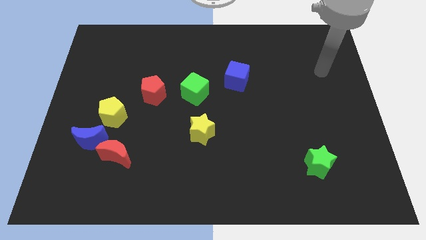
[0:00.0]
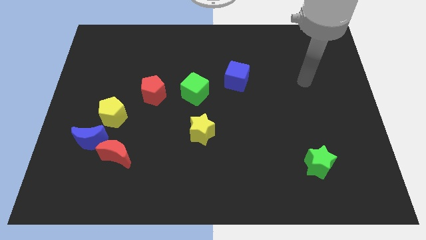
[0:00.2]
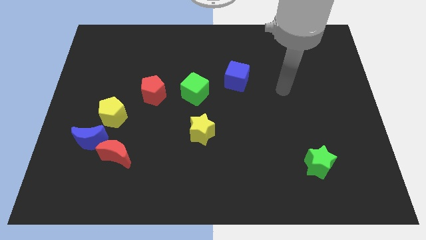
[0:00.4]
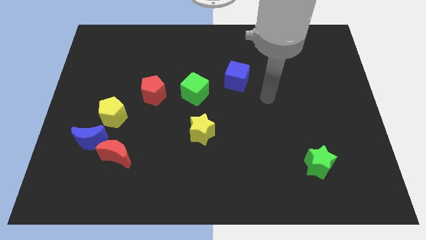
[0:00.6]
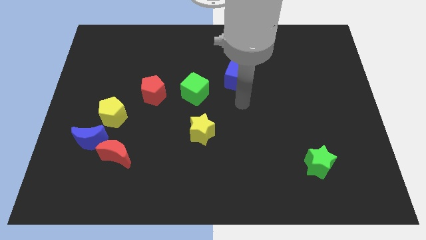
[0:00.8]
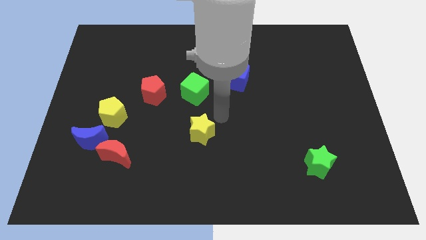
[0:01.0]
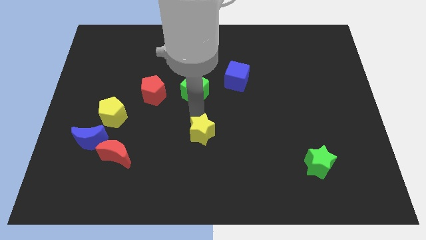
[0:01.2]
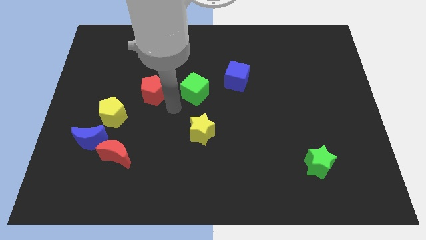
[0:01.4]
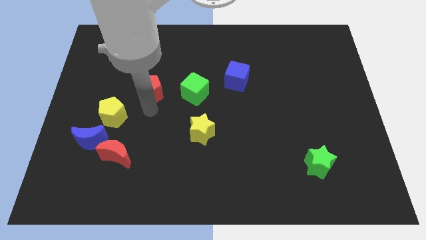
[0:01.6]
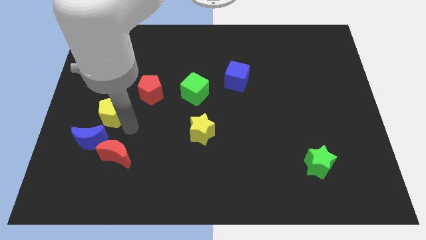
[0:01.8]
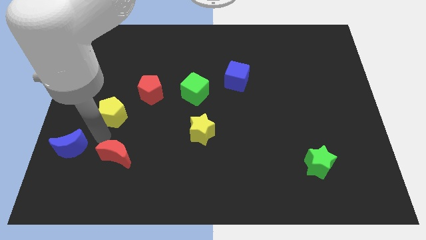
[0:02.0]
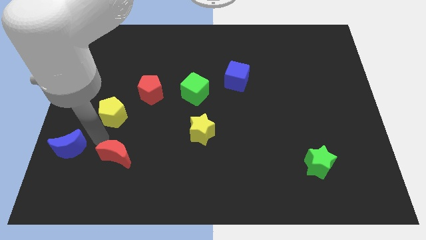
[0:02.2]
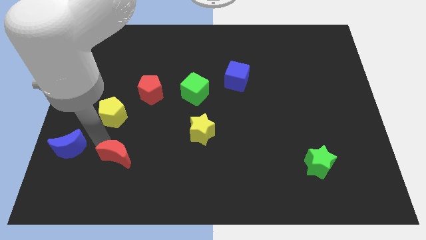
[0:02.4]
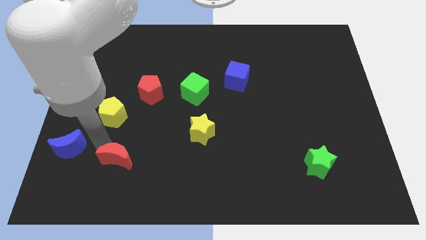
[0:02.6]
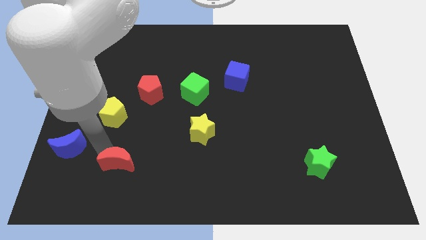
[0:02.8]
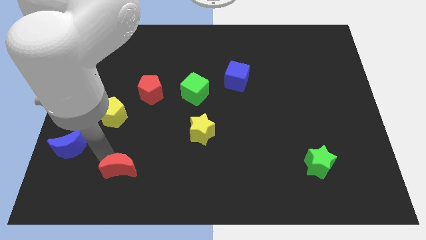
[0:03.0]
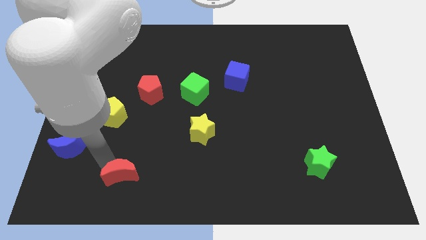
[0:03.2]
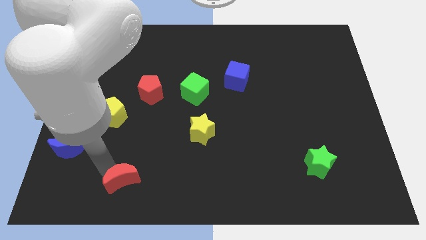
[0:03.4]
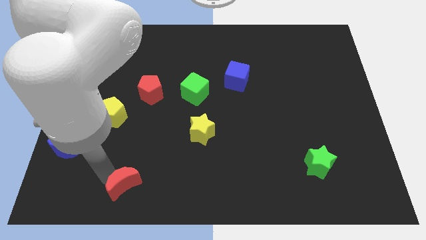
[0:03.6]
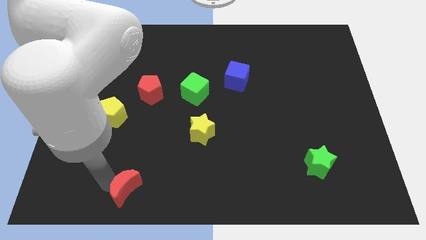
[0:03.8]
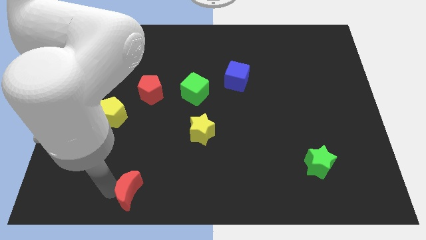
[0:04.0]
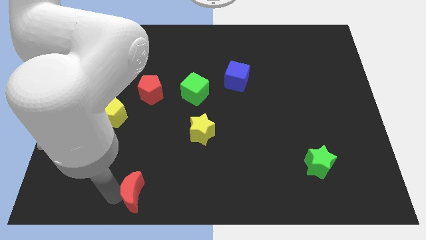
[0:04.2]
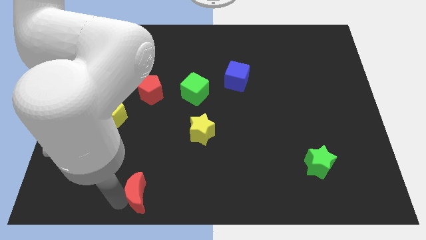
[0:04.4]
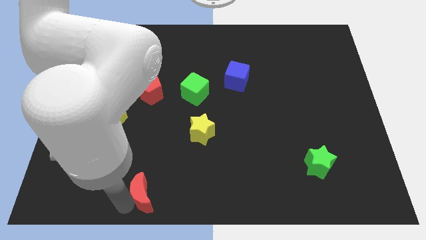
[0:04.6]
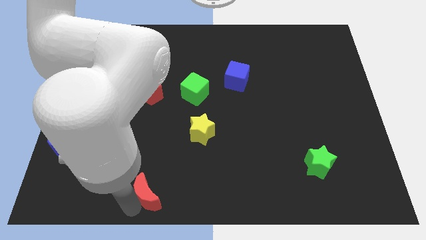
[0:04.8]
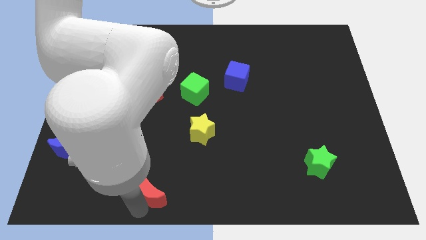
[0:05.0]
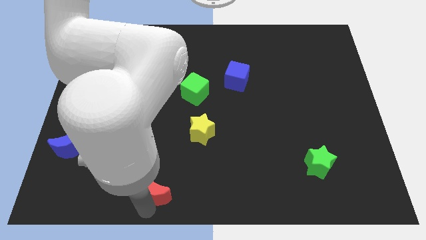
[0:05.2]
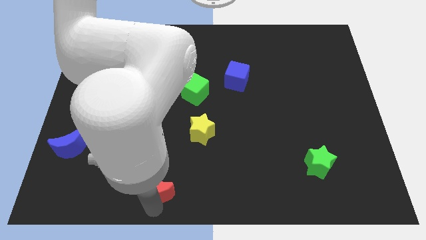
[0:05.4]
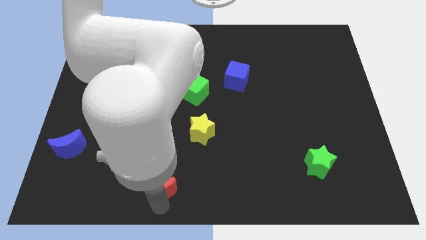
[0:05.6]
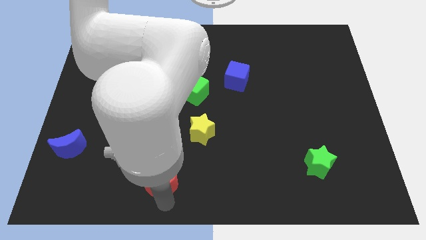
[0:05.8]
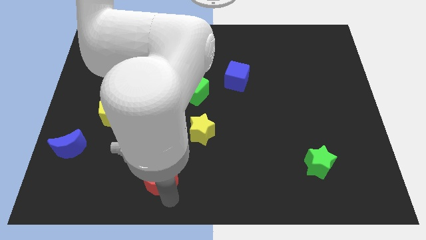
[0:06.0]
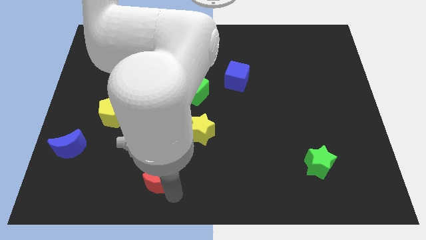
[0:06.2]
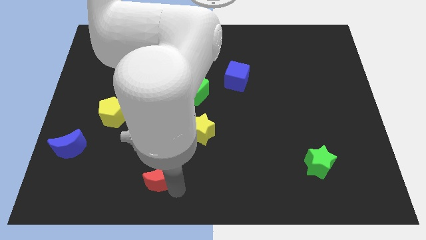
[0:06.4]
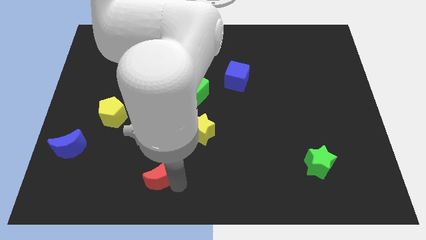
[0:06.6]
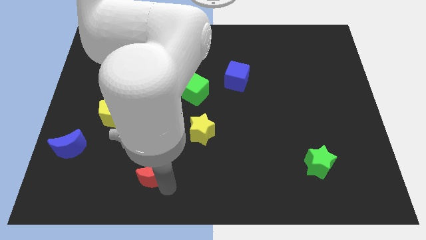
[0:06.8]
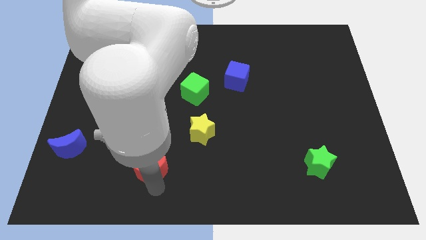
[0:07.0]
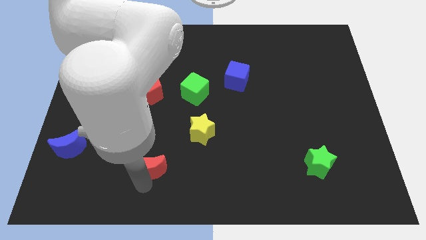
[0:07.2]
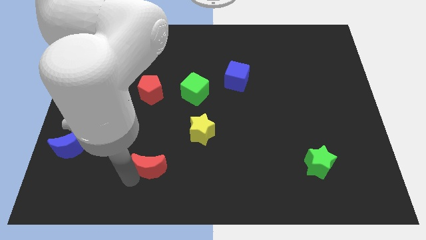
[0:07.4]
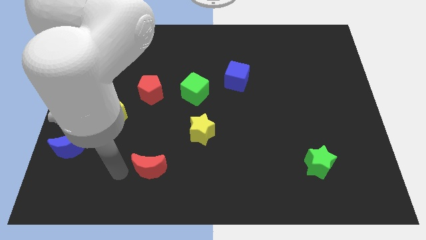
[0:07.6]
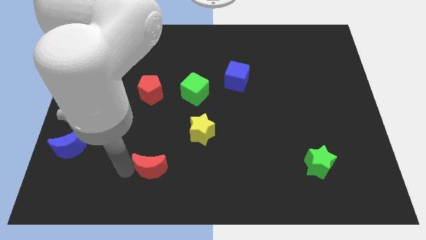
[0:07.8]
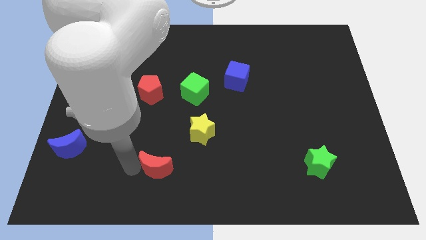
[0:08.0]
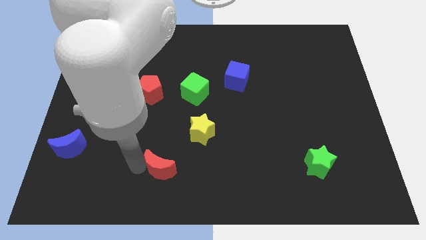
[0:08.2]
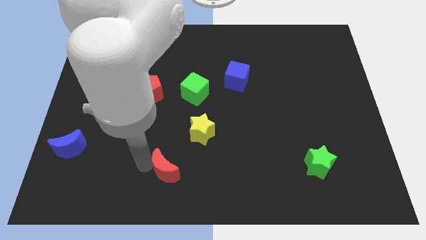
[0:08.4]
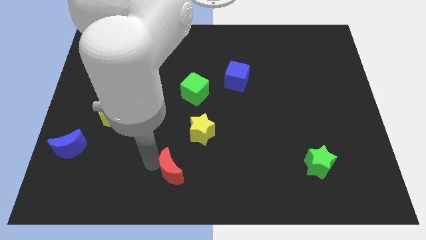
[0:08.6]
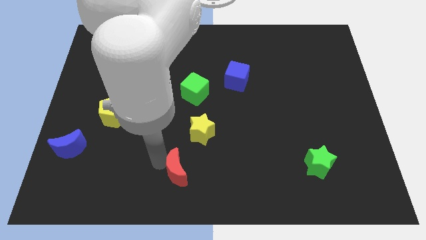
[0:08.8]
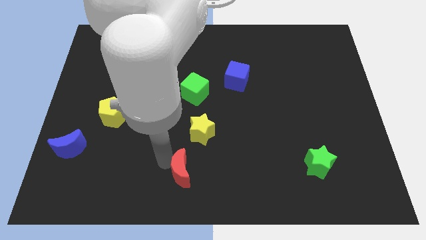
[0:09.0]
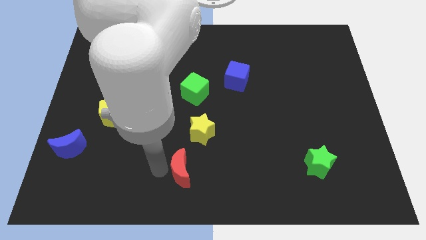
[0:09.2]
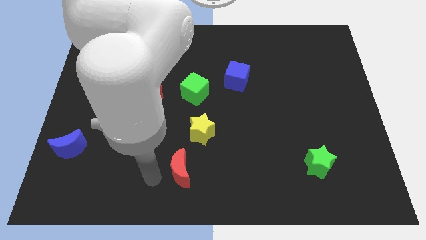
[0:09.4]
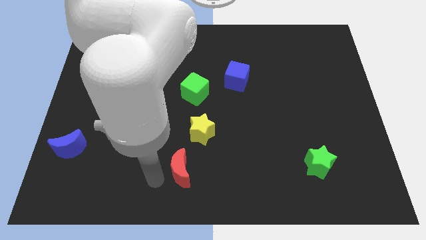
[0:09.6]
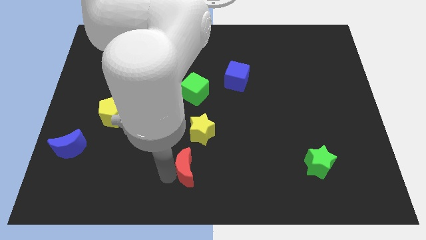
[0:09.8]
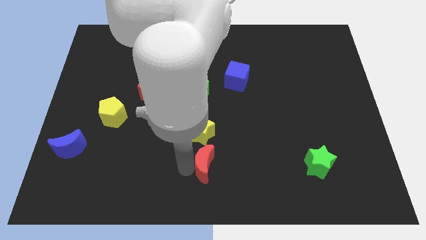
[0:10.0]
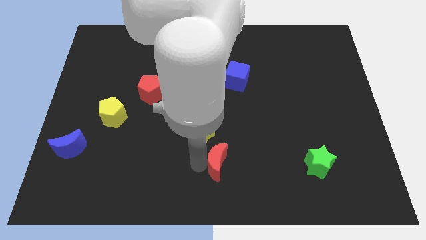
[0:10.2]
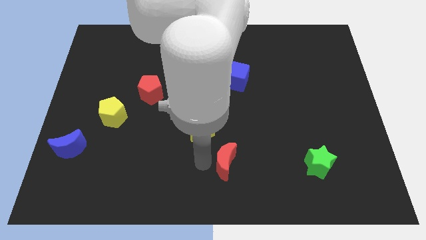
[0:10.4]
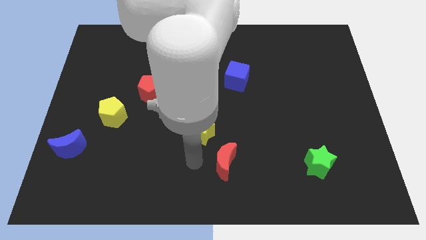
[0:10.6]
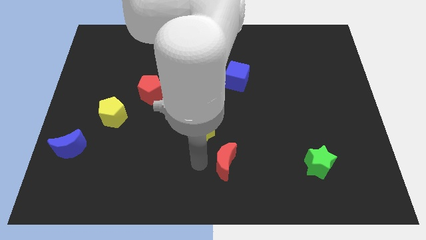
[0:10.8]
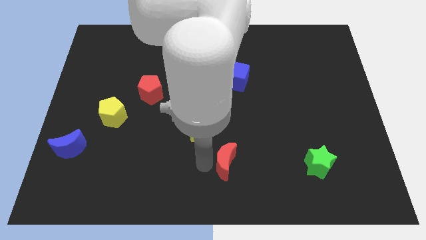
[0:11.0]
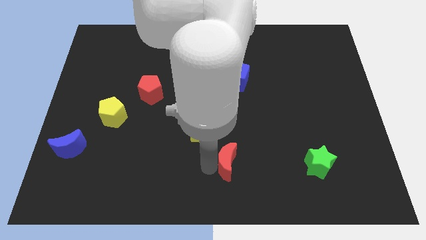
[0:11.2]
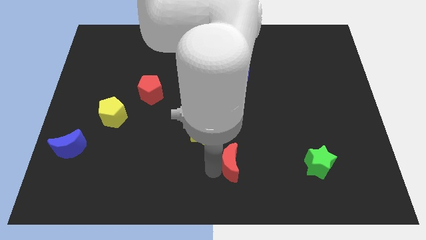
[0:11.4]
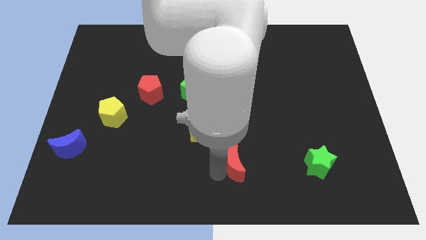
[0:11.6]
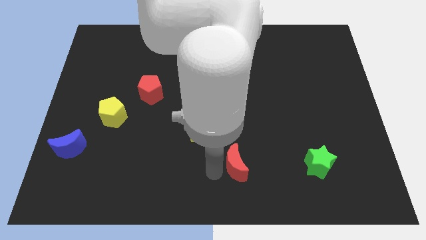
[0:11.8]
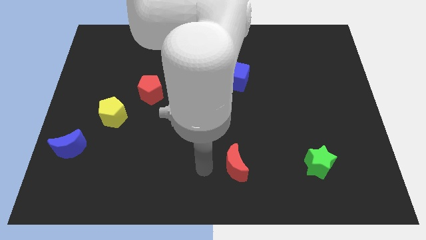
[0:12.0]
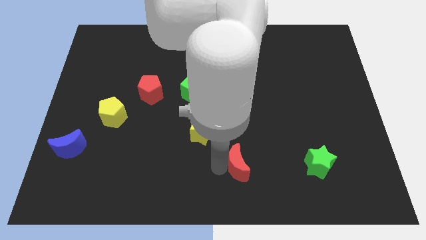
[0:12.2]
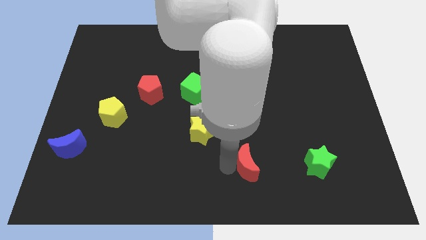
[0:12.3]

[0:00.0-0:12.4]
move the red moon to the left of the green star
